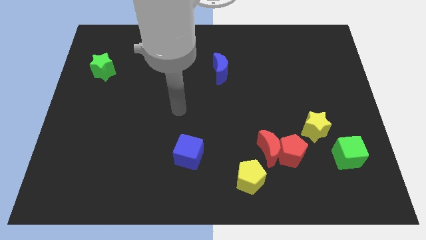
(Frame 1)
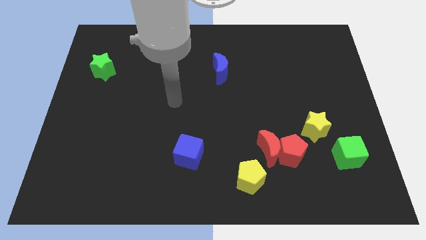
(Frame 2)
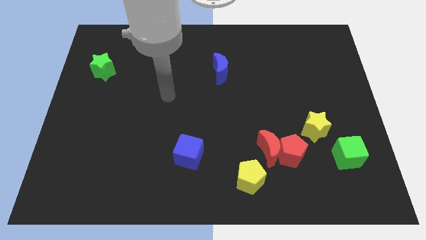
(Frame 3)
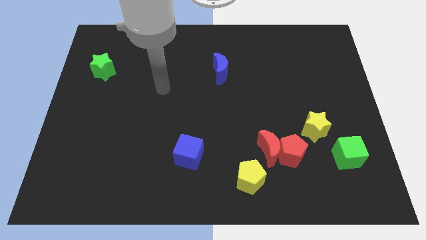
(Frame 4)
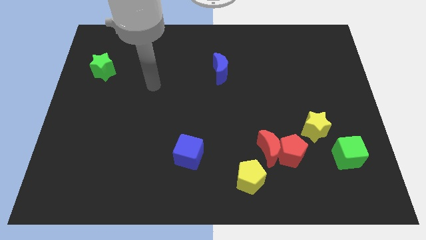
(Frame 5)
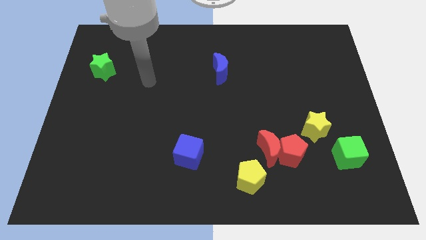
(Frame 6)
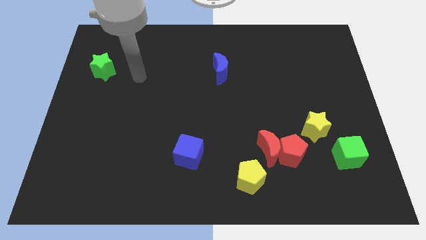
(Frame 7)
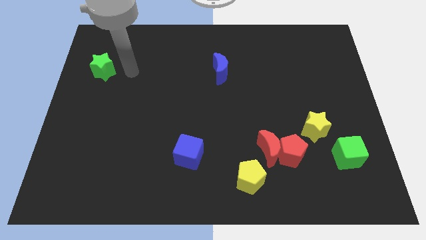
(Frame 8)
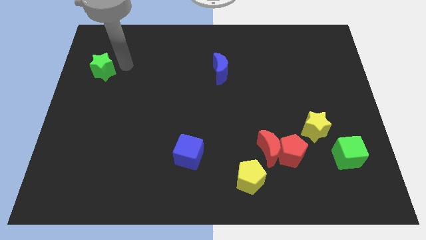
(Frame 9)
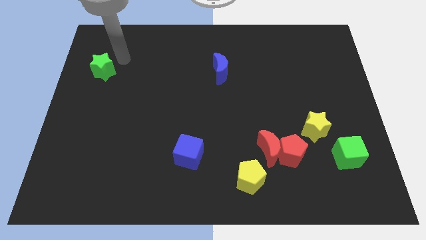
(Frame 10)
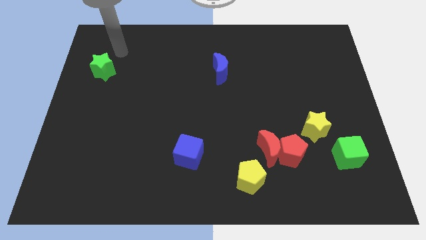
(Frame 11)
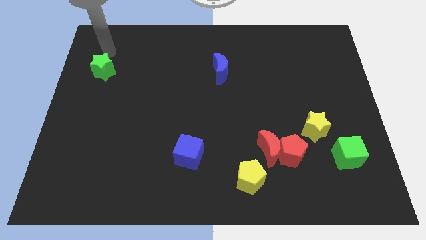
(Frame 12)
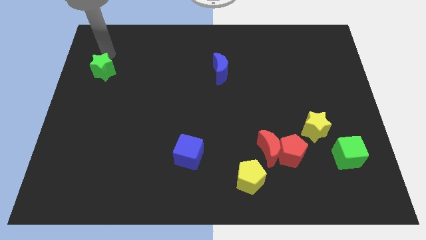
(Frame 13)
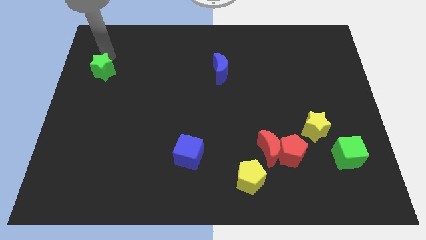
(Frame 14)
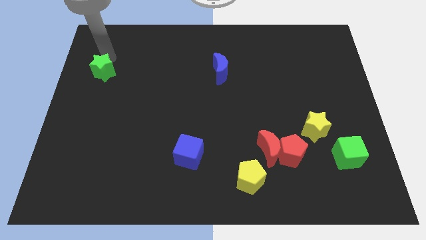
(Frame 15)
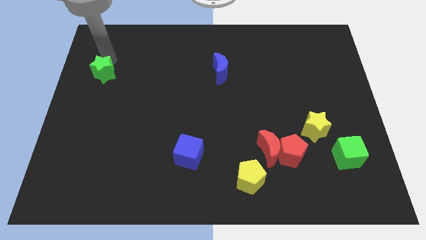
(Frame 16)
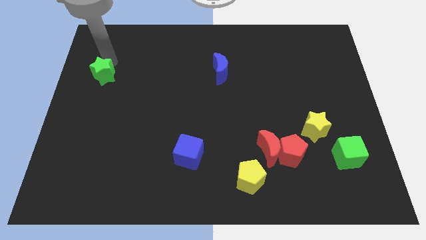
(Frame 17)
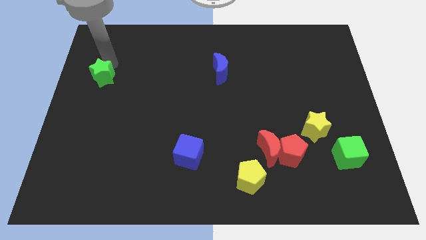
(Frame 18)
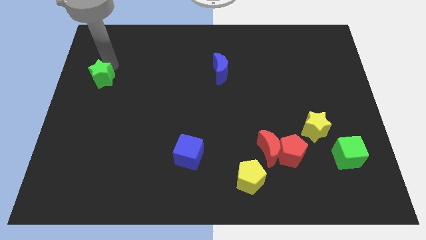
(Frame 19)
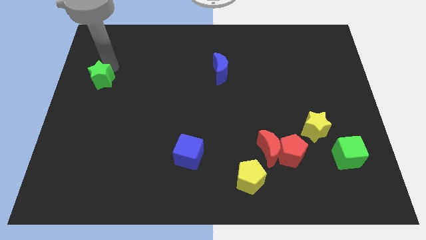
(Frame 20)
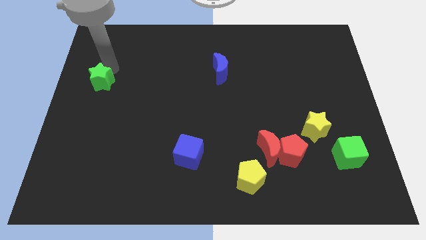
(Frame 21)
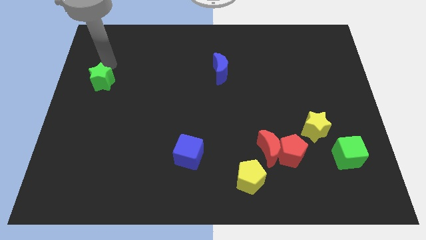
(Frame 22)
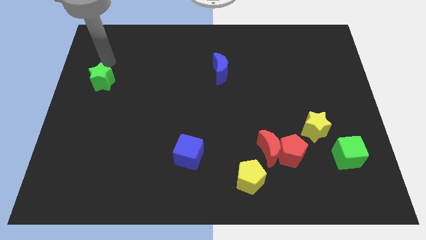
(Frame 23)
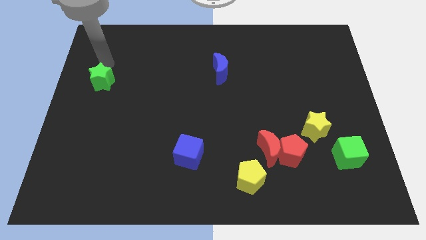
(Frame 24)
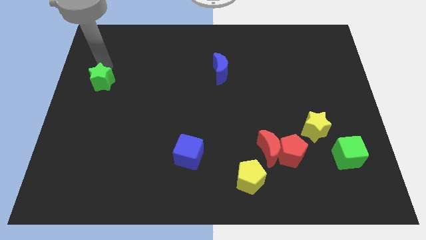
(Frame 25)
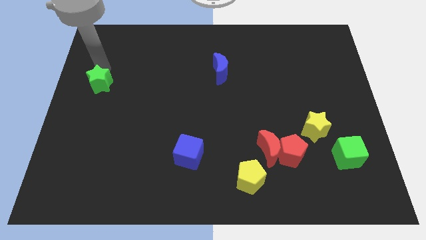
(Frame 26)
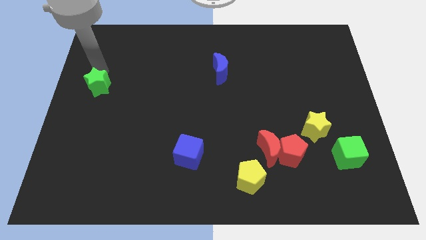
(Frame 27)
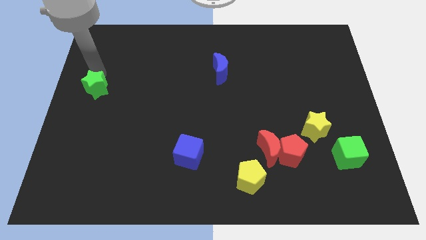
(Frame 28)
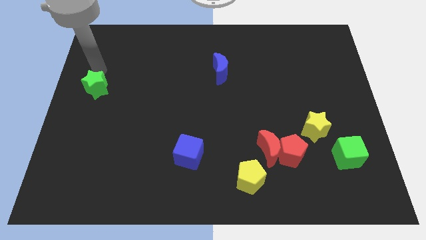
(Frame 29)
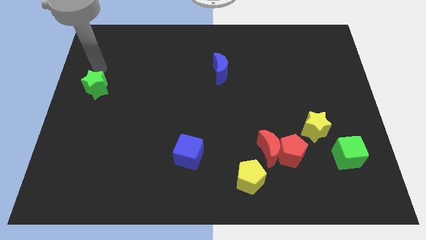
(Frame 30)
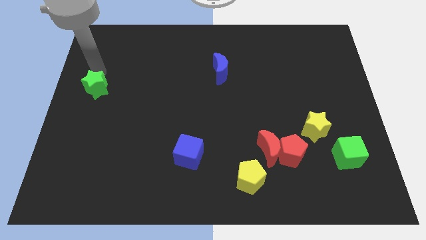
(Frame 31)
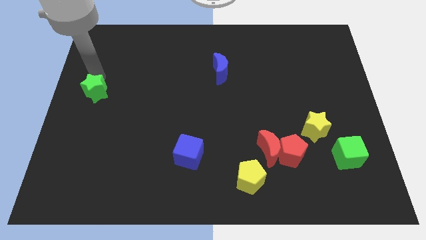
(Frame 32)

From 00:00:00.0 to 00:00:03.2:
push the green star a little down

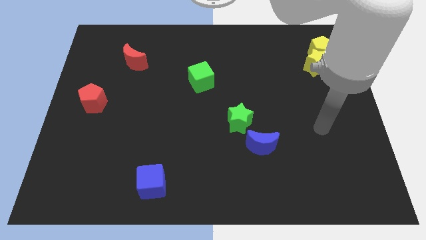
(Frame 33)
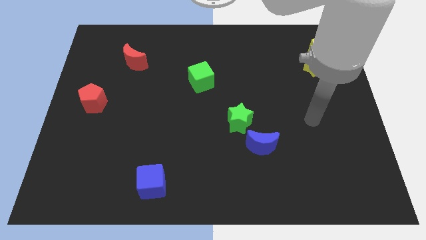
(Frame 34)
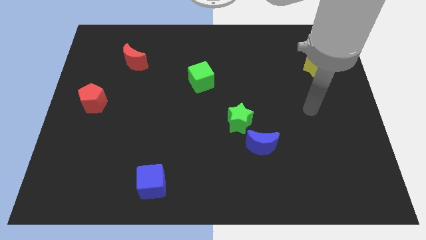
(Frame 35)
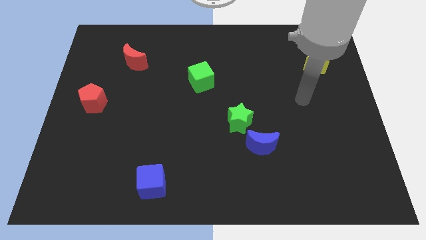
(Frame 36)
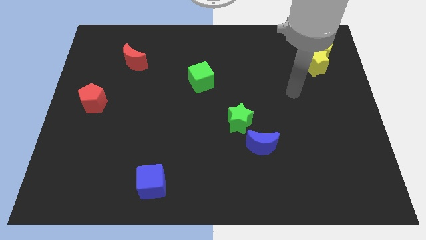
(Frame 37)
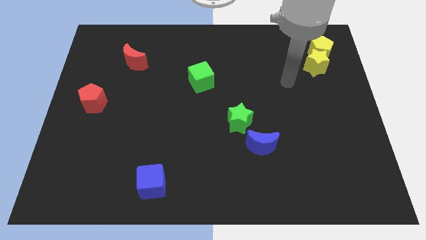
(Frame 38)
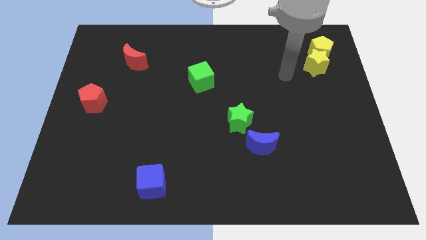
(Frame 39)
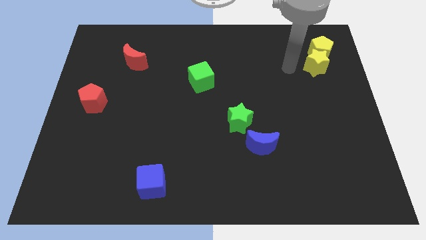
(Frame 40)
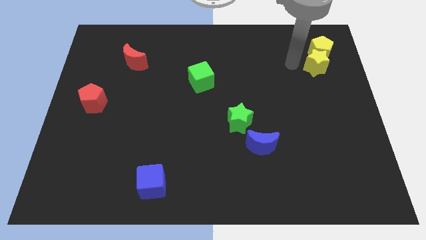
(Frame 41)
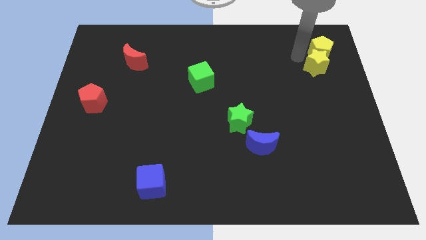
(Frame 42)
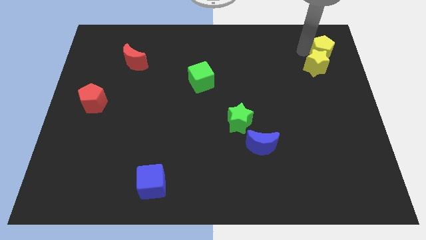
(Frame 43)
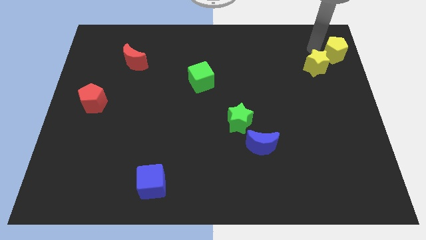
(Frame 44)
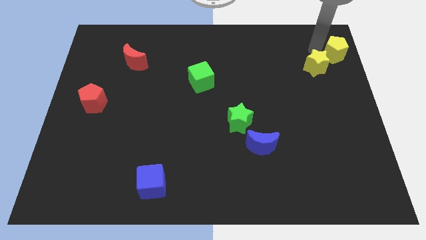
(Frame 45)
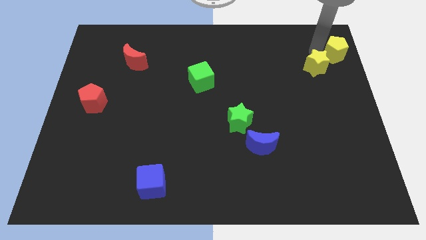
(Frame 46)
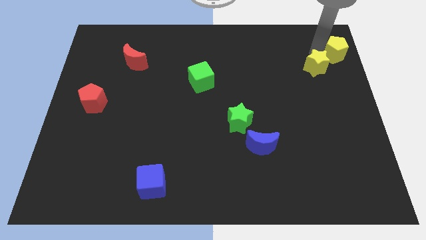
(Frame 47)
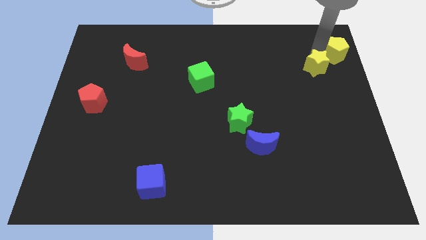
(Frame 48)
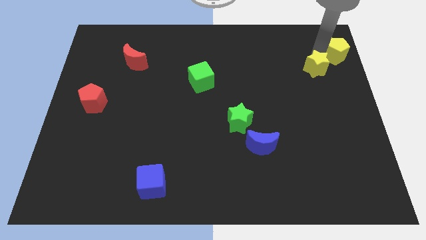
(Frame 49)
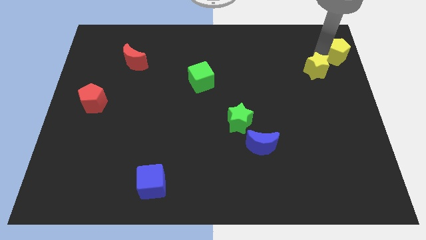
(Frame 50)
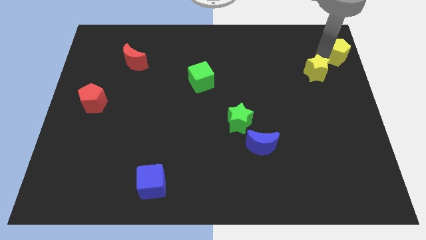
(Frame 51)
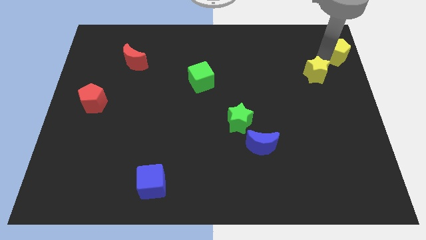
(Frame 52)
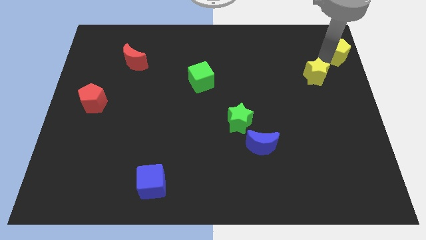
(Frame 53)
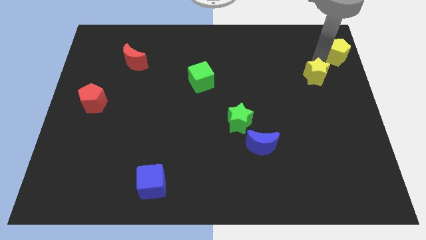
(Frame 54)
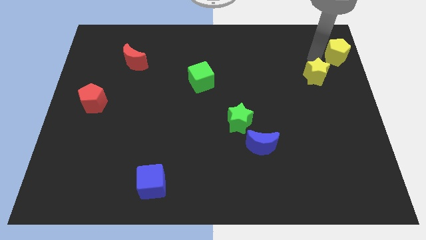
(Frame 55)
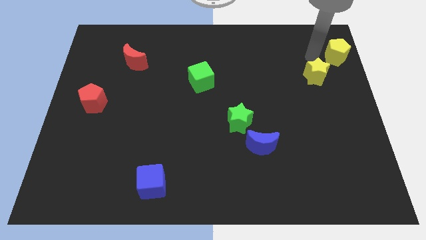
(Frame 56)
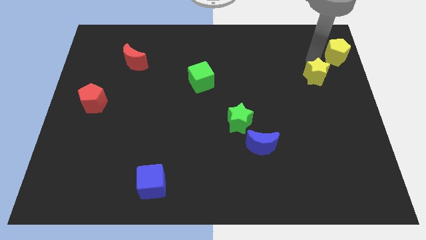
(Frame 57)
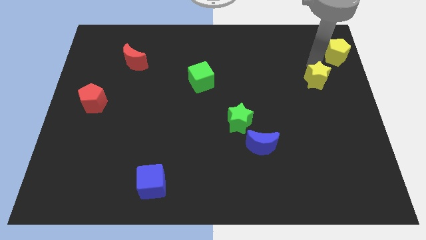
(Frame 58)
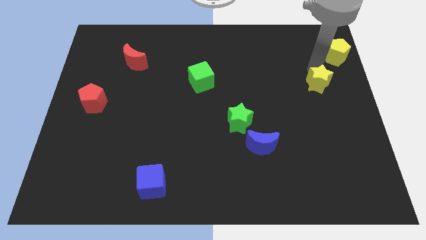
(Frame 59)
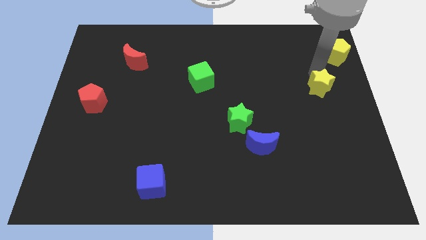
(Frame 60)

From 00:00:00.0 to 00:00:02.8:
slightly push the yellow star down

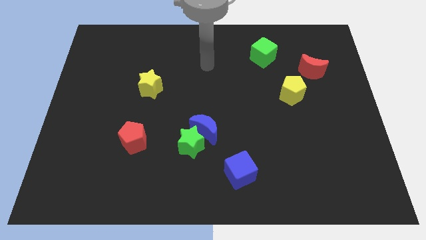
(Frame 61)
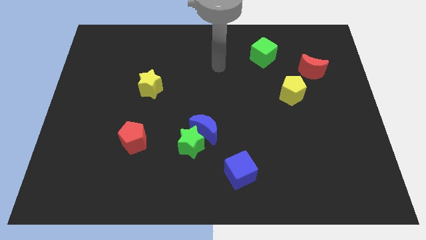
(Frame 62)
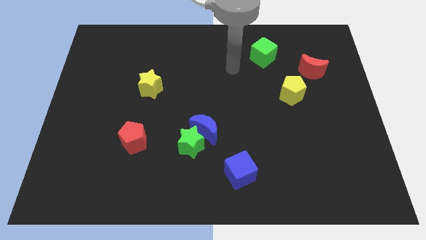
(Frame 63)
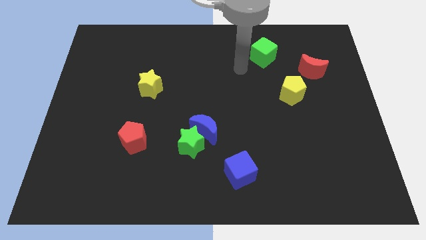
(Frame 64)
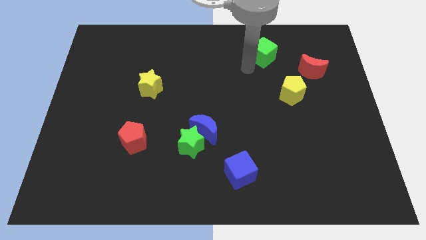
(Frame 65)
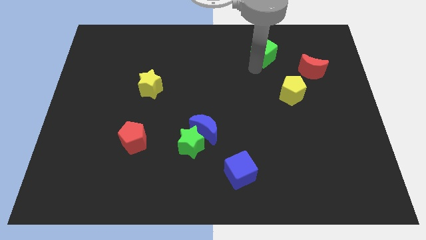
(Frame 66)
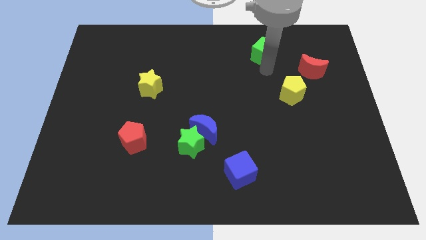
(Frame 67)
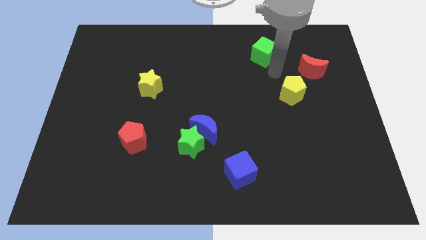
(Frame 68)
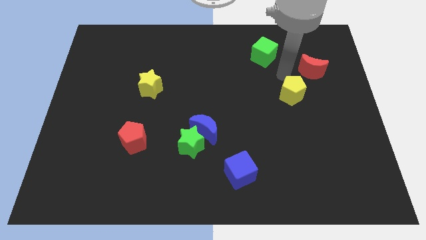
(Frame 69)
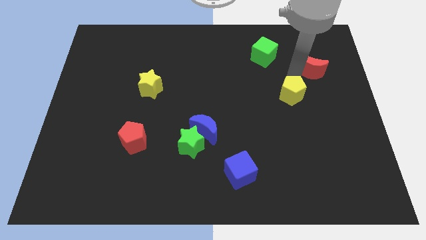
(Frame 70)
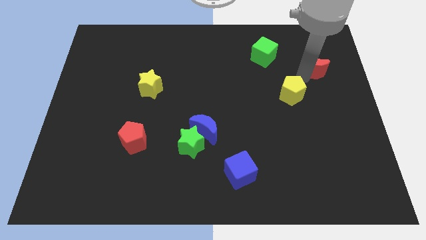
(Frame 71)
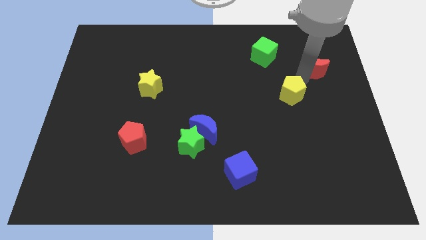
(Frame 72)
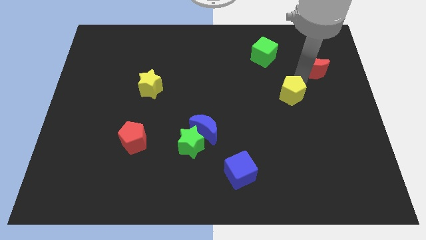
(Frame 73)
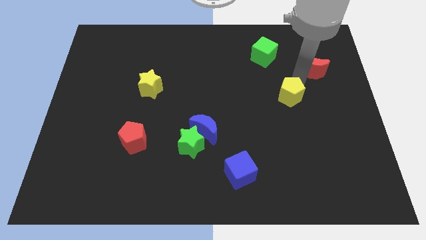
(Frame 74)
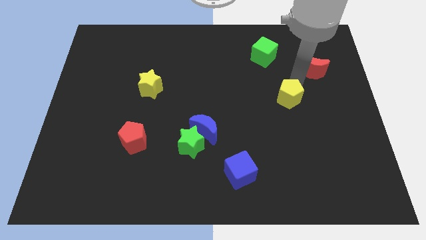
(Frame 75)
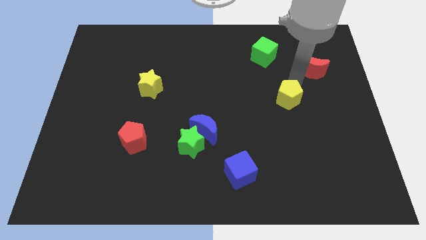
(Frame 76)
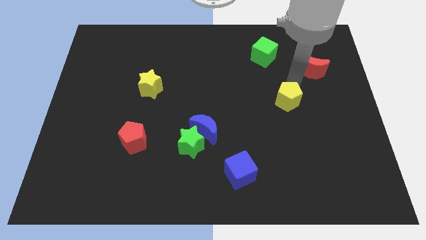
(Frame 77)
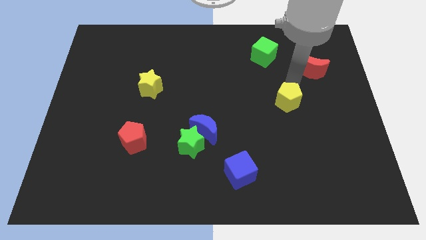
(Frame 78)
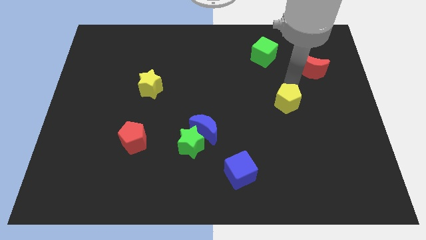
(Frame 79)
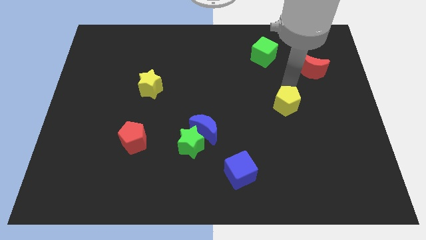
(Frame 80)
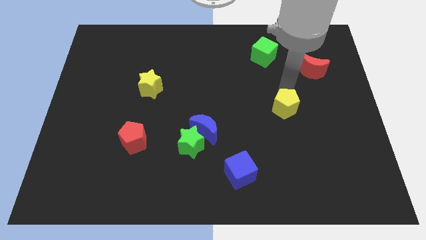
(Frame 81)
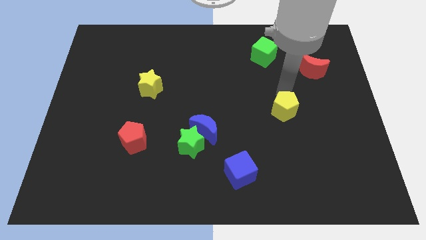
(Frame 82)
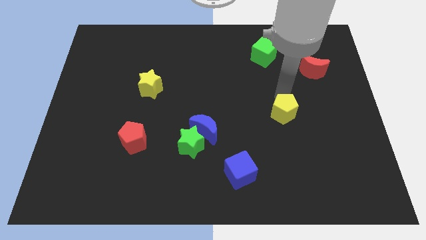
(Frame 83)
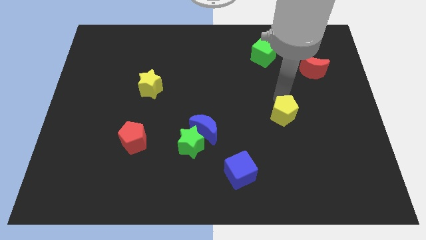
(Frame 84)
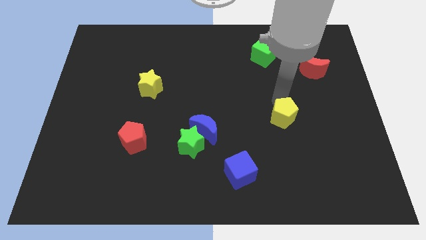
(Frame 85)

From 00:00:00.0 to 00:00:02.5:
push the yellow pentagon a bit diagonally down and to the left

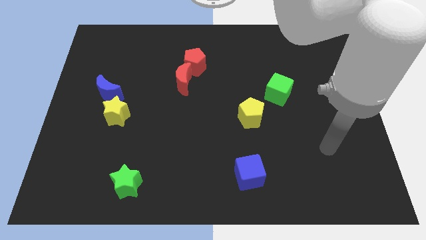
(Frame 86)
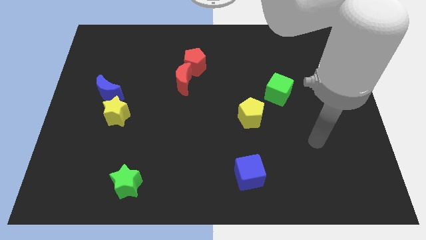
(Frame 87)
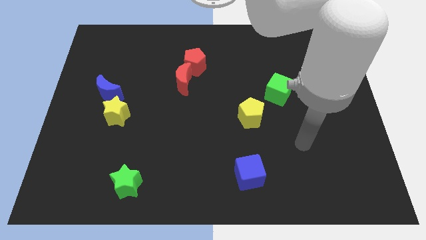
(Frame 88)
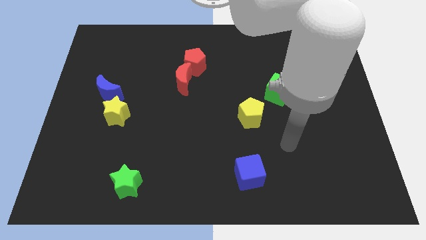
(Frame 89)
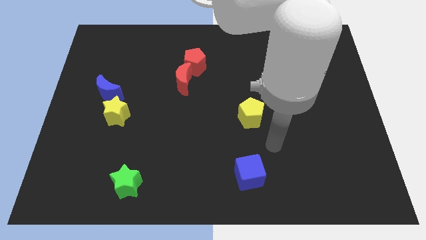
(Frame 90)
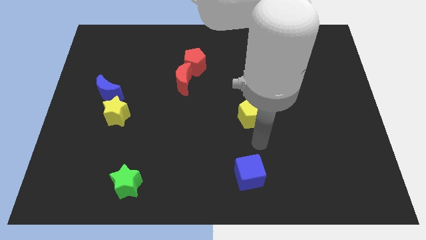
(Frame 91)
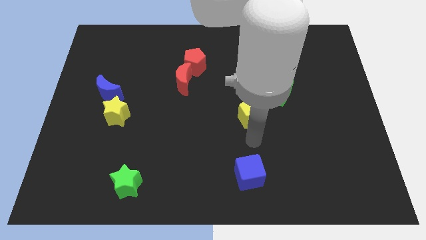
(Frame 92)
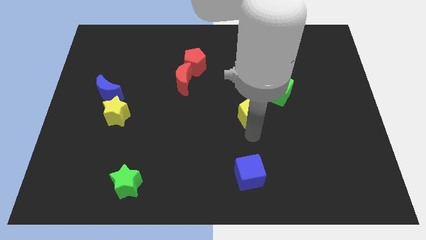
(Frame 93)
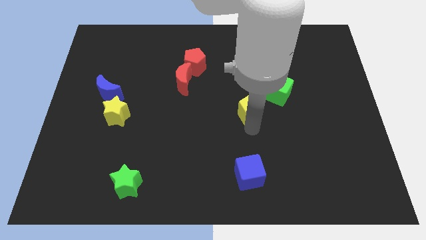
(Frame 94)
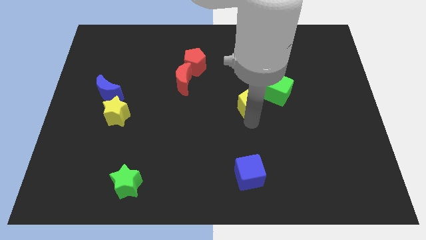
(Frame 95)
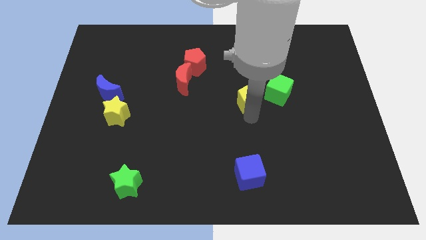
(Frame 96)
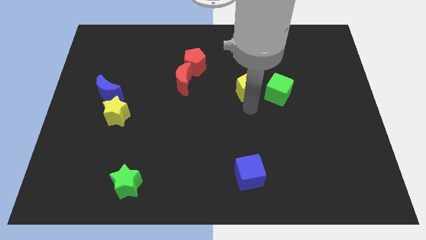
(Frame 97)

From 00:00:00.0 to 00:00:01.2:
slide the yellow pentagon up a little bit
